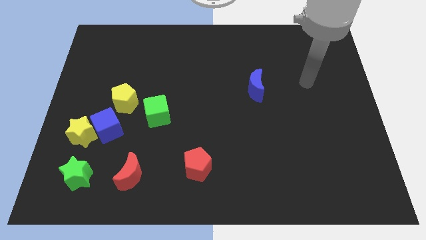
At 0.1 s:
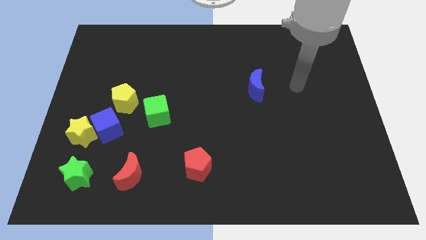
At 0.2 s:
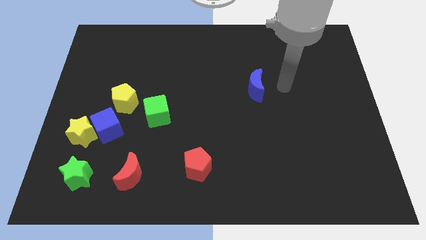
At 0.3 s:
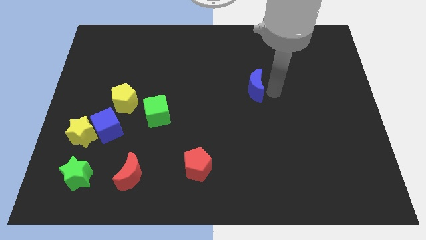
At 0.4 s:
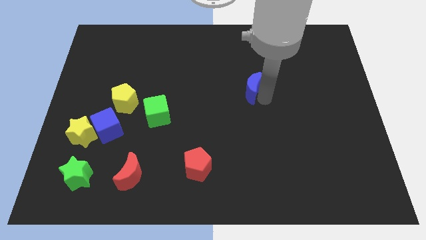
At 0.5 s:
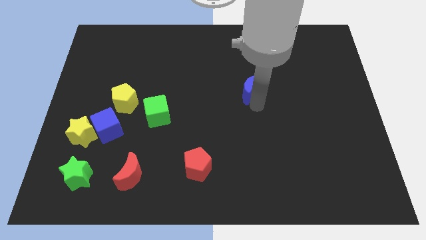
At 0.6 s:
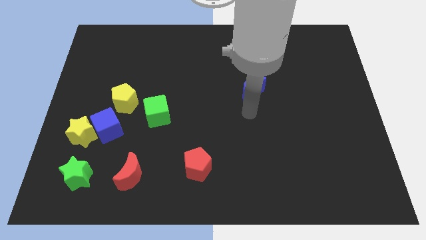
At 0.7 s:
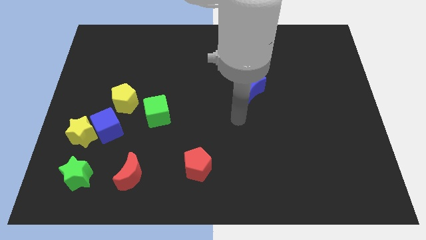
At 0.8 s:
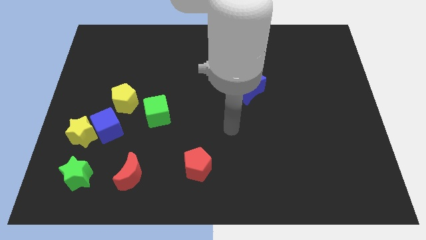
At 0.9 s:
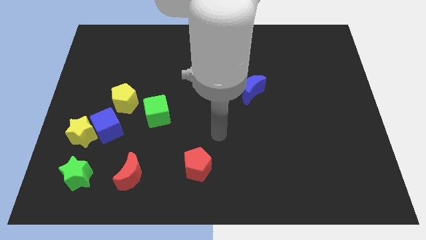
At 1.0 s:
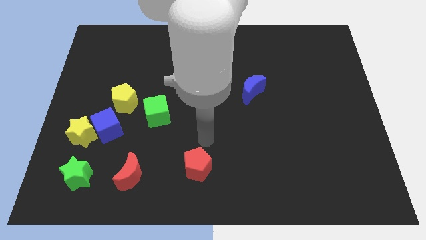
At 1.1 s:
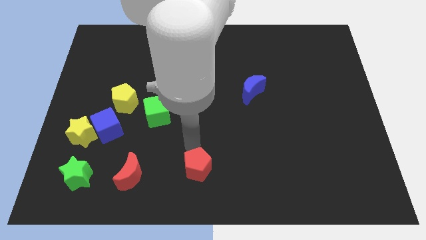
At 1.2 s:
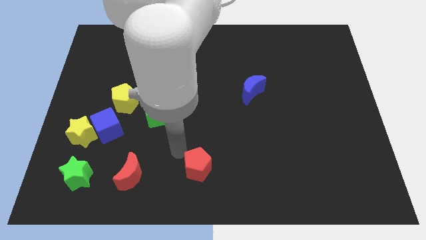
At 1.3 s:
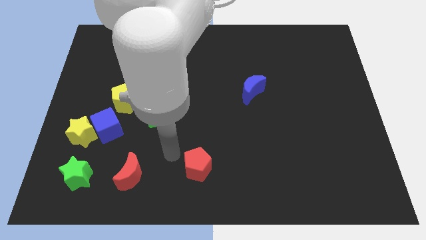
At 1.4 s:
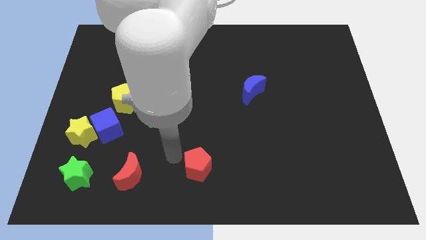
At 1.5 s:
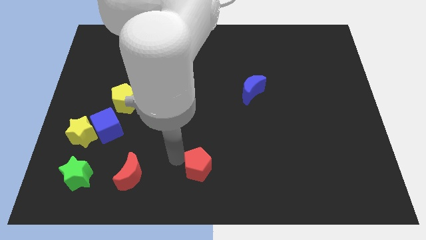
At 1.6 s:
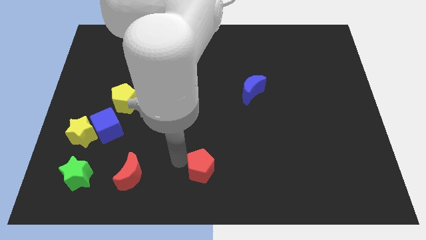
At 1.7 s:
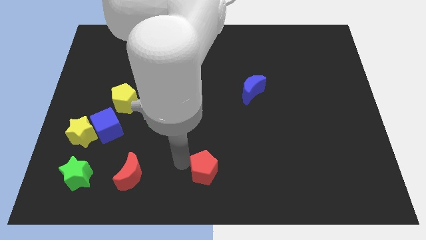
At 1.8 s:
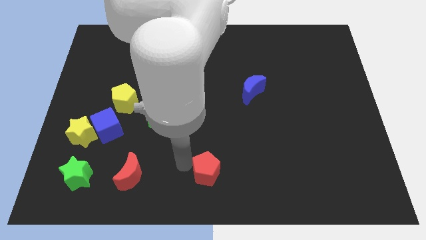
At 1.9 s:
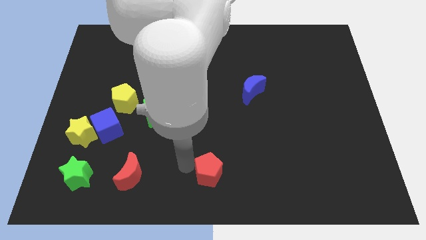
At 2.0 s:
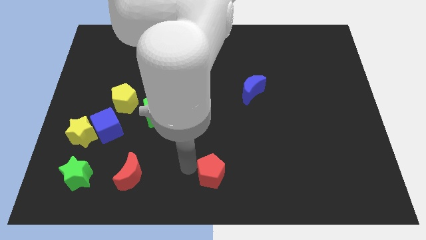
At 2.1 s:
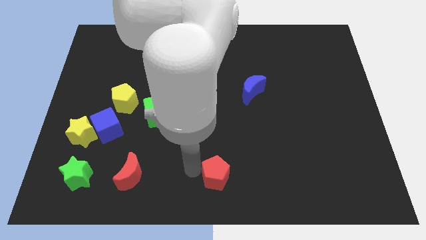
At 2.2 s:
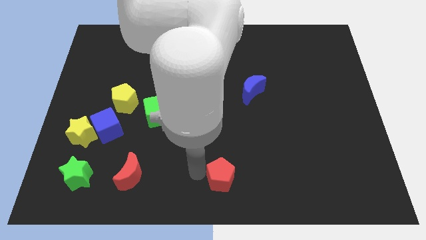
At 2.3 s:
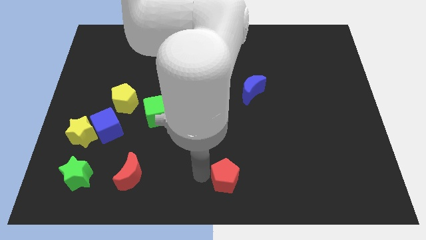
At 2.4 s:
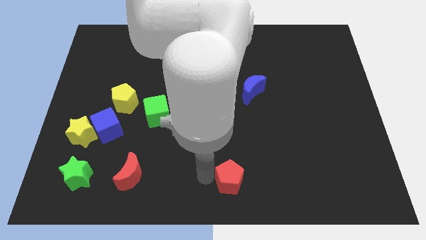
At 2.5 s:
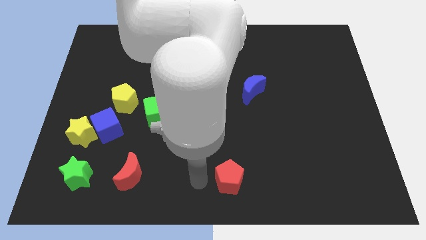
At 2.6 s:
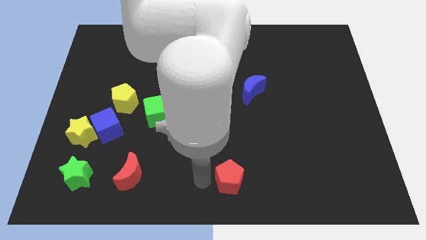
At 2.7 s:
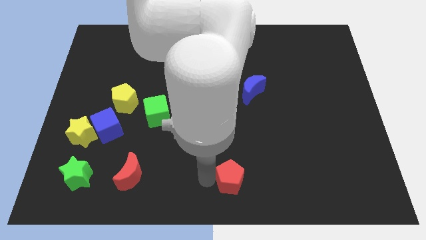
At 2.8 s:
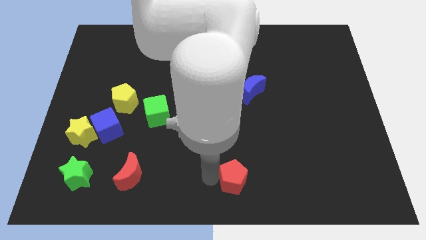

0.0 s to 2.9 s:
slightly move the red pentagon right

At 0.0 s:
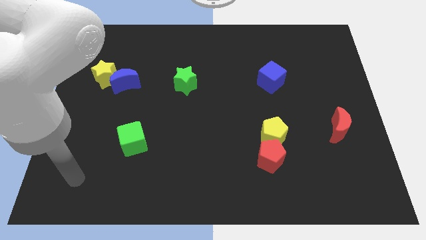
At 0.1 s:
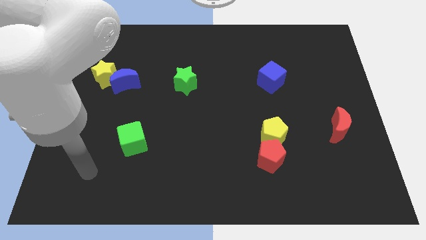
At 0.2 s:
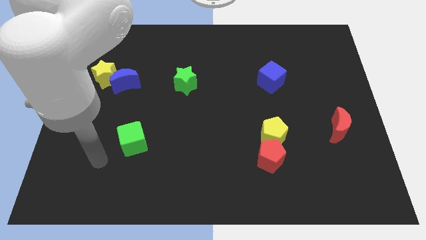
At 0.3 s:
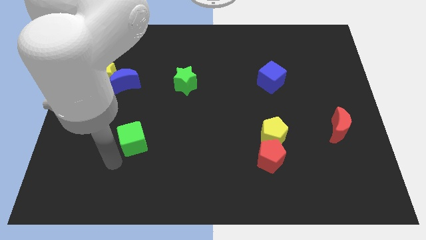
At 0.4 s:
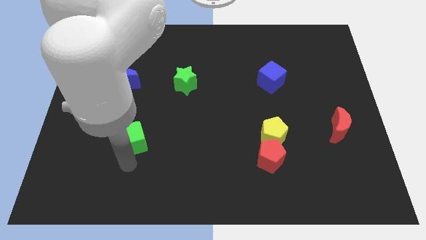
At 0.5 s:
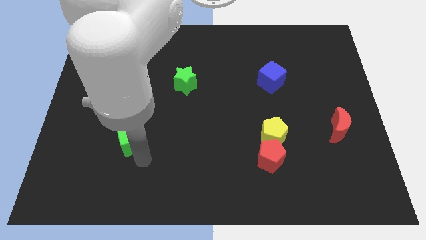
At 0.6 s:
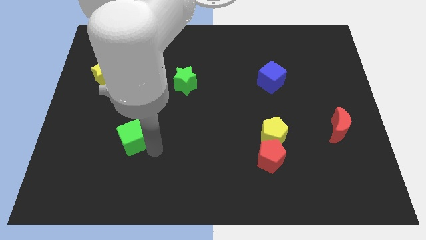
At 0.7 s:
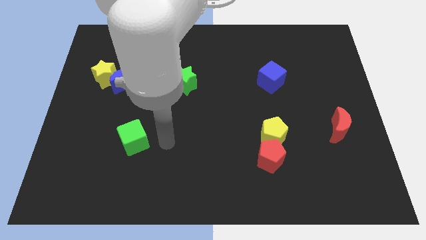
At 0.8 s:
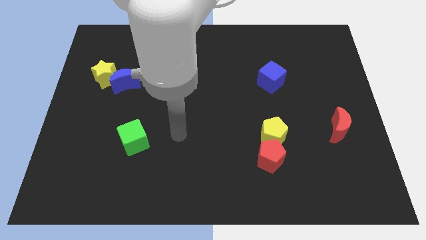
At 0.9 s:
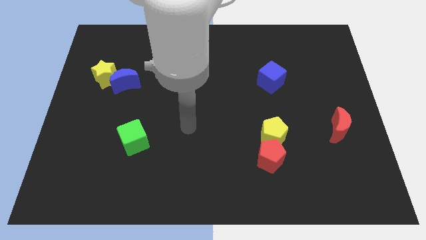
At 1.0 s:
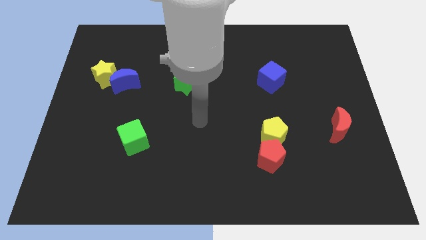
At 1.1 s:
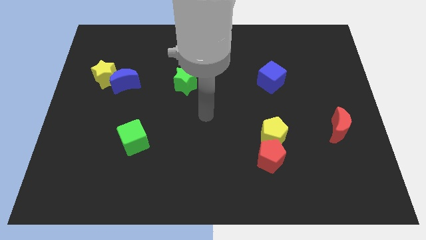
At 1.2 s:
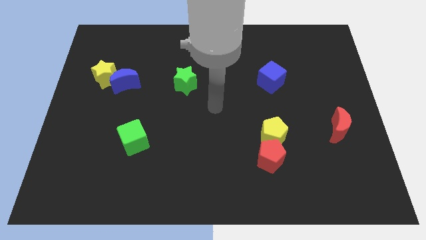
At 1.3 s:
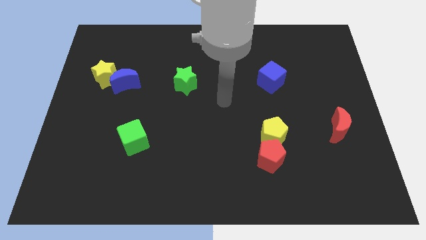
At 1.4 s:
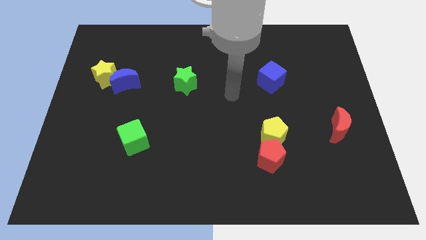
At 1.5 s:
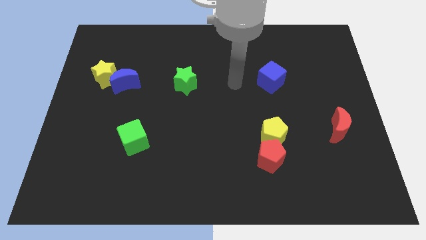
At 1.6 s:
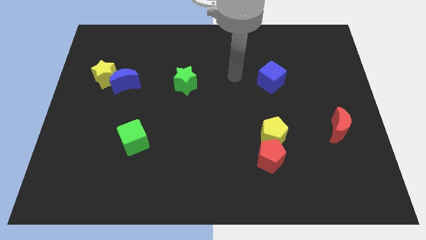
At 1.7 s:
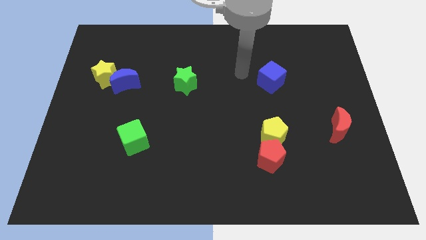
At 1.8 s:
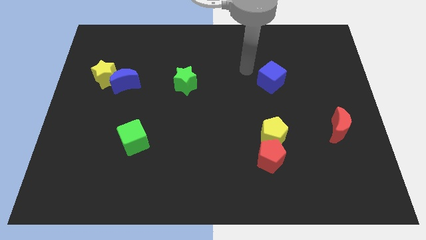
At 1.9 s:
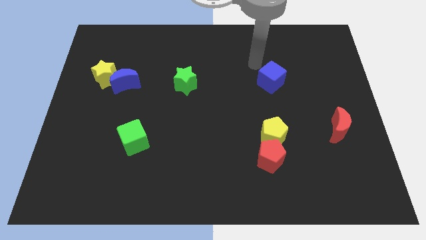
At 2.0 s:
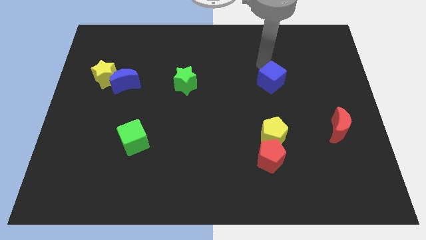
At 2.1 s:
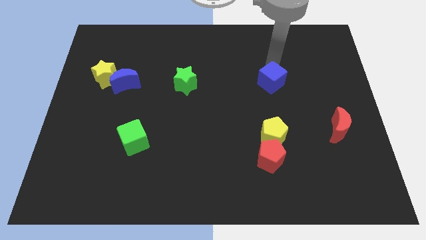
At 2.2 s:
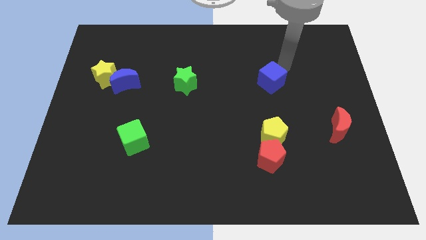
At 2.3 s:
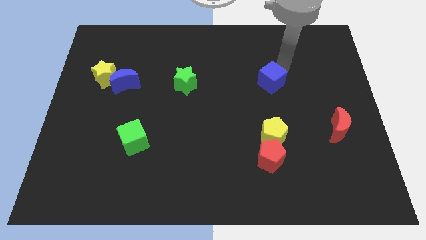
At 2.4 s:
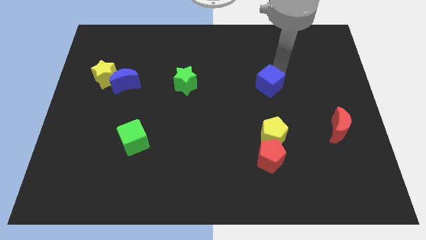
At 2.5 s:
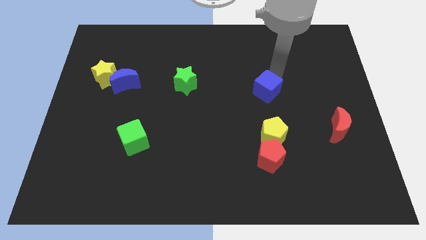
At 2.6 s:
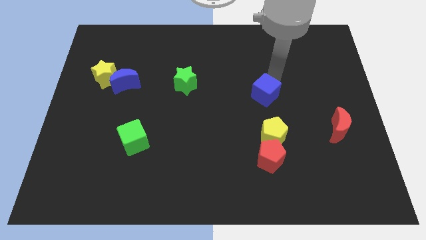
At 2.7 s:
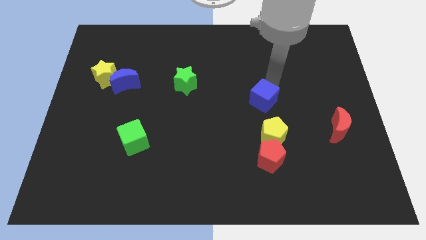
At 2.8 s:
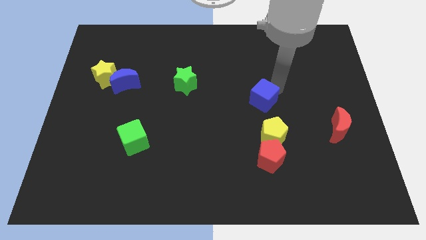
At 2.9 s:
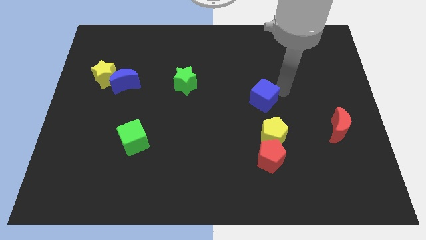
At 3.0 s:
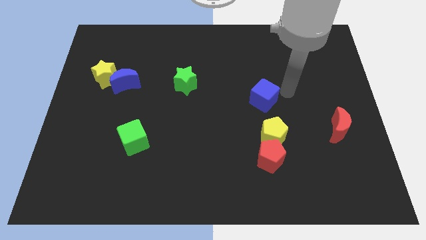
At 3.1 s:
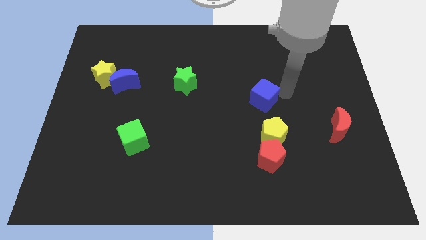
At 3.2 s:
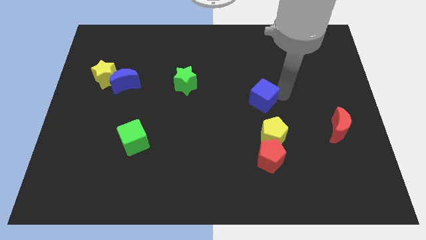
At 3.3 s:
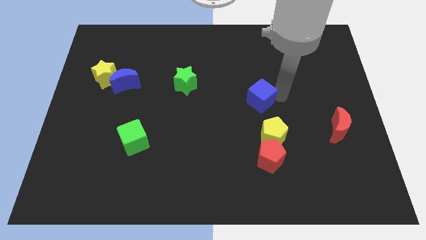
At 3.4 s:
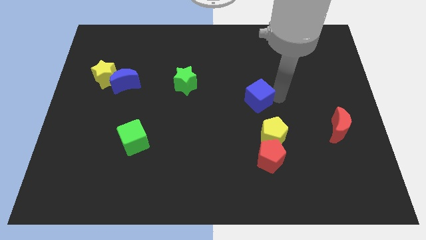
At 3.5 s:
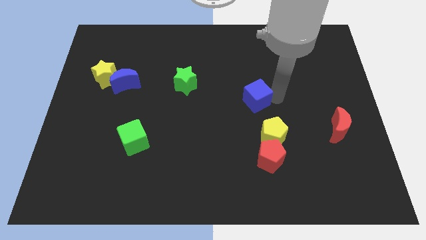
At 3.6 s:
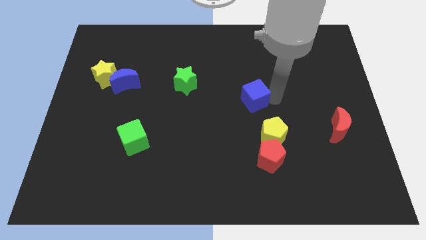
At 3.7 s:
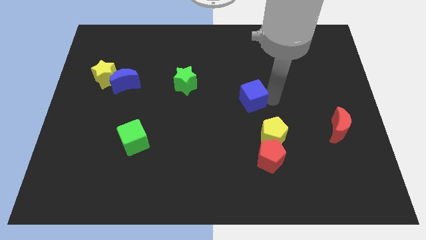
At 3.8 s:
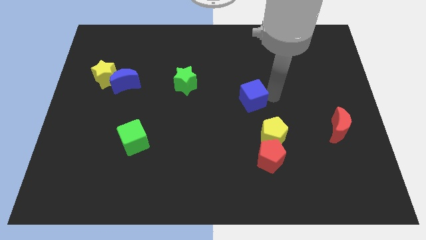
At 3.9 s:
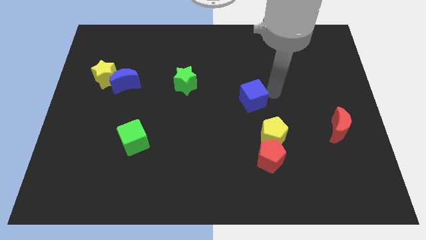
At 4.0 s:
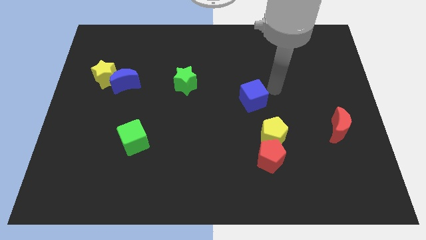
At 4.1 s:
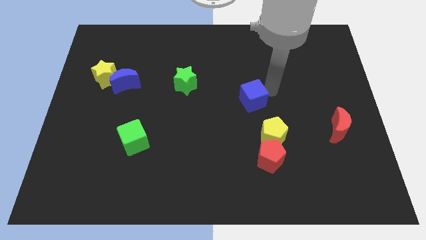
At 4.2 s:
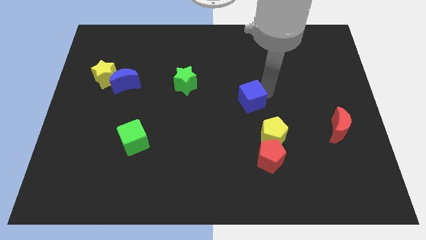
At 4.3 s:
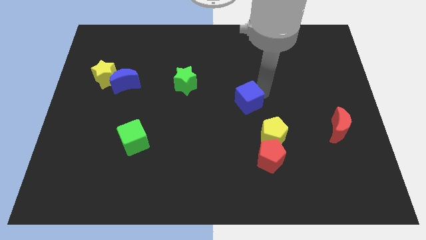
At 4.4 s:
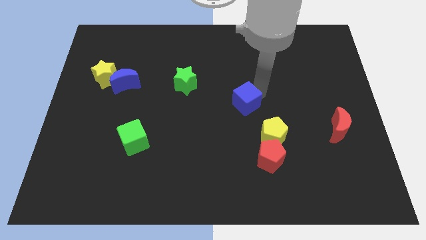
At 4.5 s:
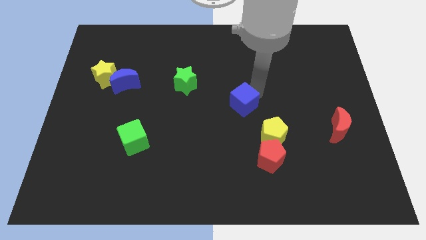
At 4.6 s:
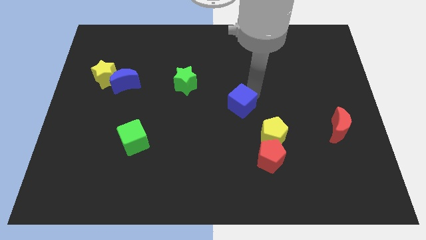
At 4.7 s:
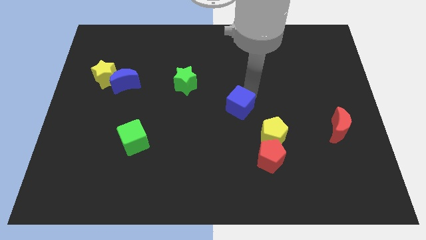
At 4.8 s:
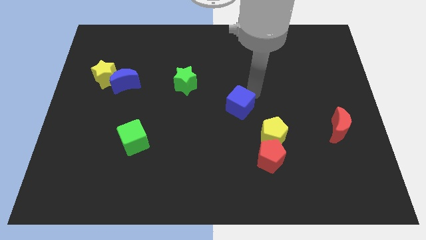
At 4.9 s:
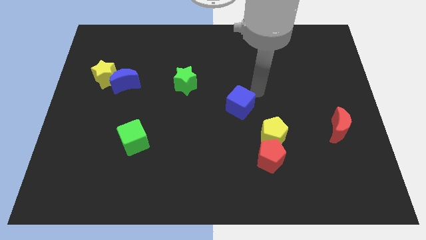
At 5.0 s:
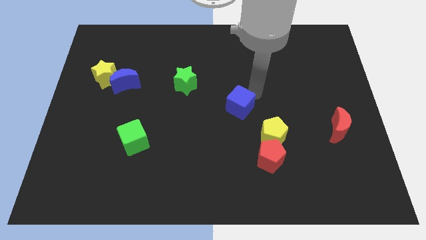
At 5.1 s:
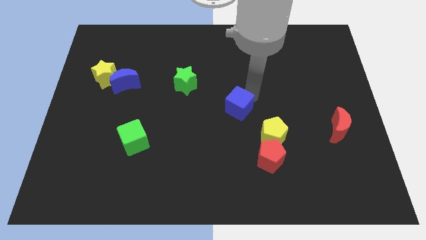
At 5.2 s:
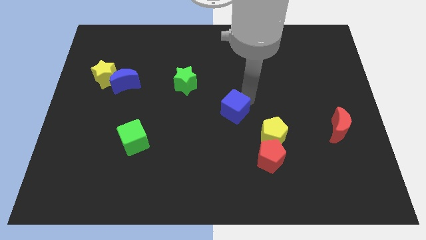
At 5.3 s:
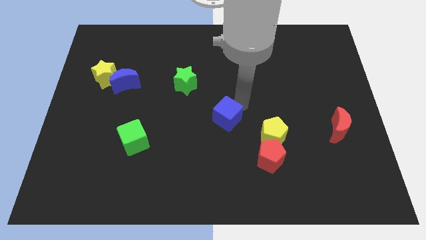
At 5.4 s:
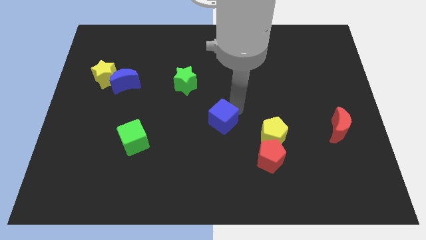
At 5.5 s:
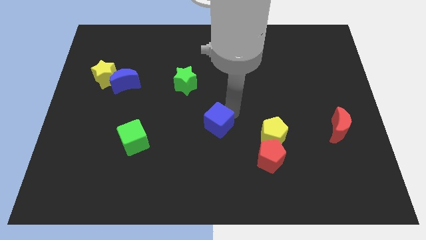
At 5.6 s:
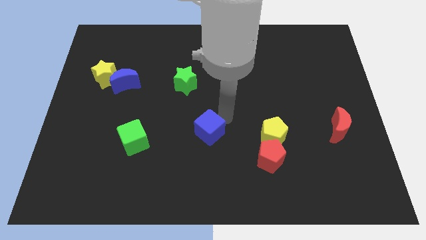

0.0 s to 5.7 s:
slide the blue cube down and to the left
